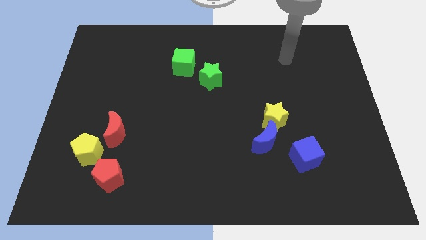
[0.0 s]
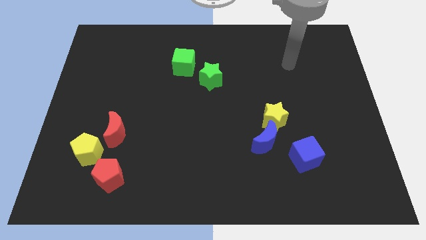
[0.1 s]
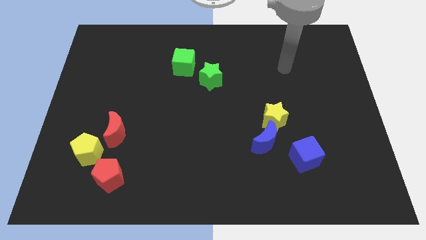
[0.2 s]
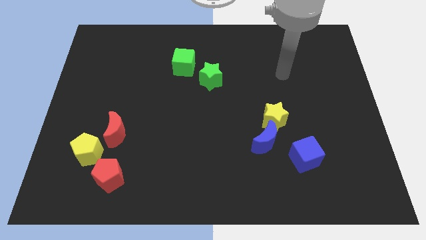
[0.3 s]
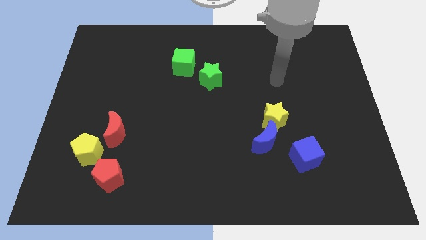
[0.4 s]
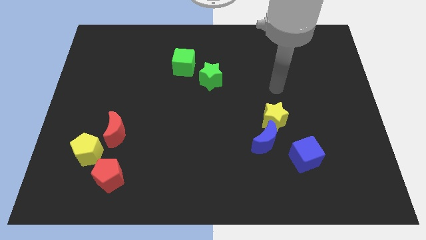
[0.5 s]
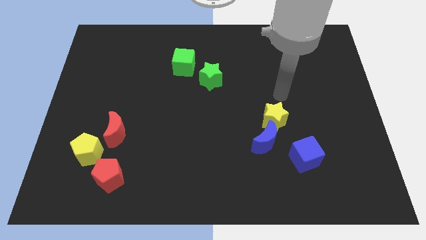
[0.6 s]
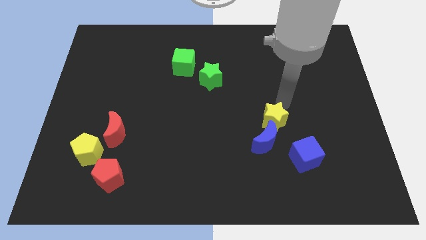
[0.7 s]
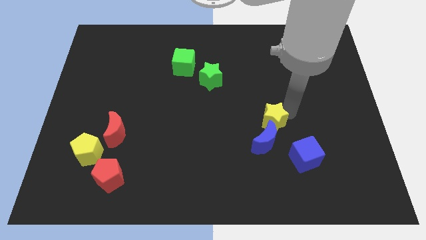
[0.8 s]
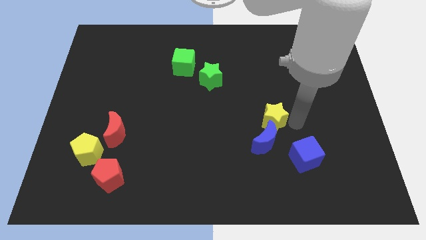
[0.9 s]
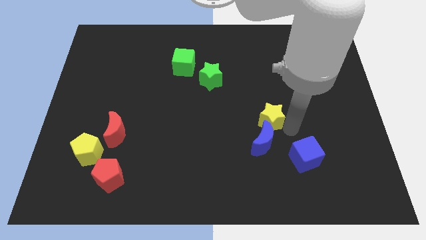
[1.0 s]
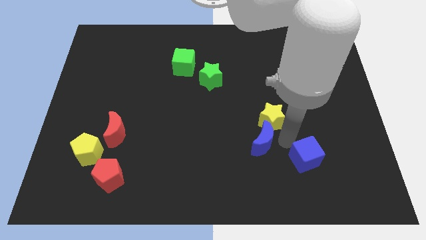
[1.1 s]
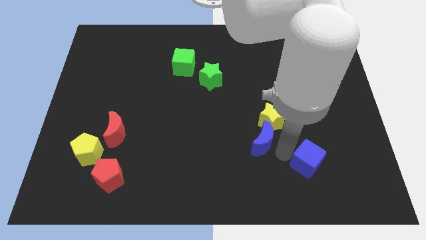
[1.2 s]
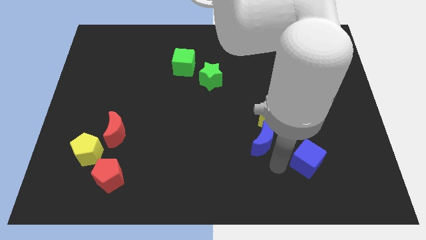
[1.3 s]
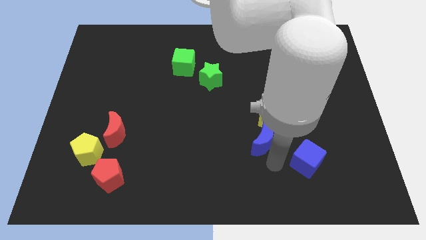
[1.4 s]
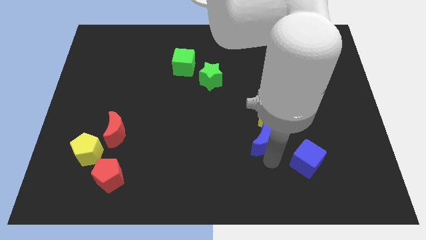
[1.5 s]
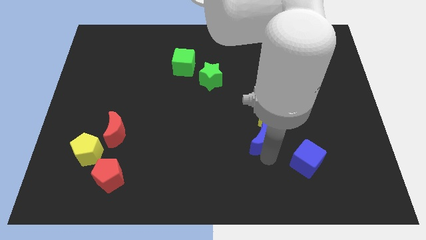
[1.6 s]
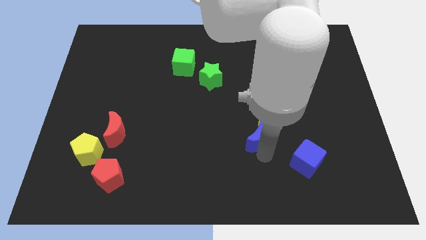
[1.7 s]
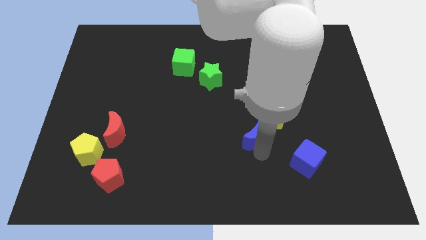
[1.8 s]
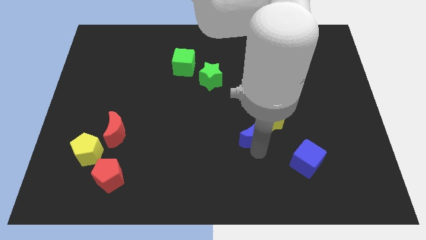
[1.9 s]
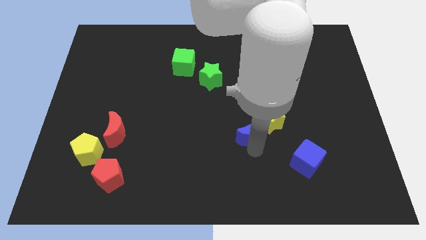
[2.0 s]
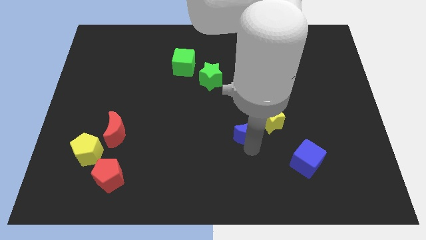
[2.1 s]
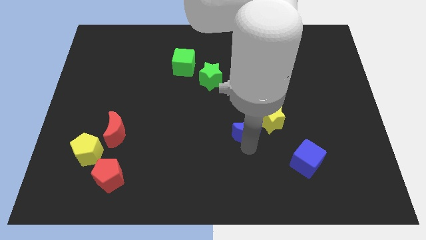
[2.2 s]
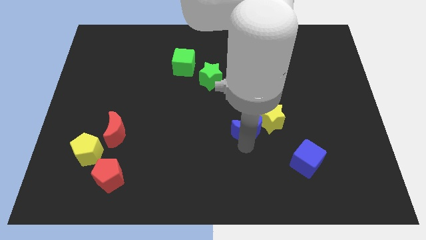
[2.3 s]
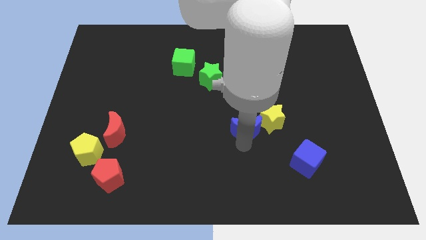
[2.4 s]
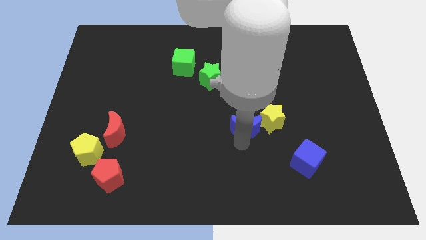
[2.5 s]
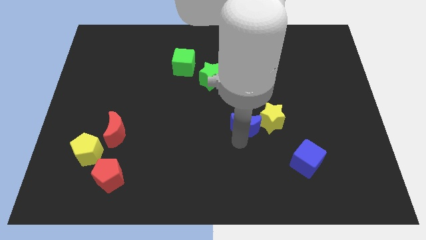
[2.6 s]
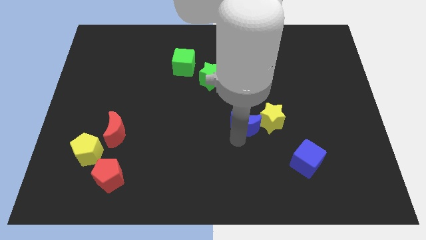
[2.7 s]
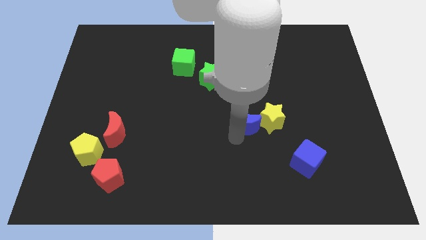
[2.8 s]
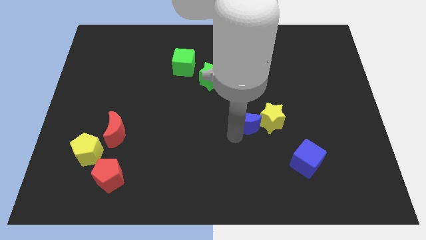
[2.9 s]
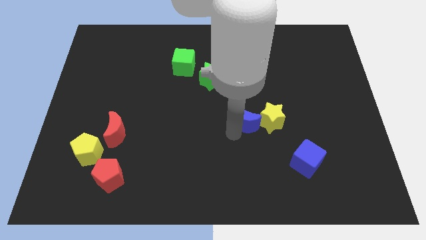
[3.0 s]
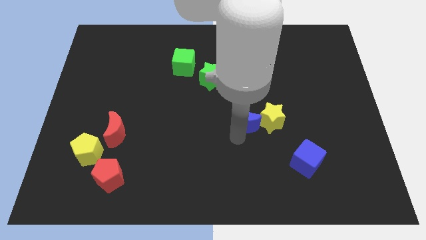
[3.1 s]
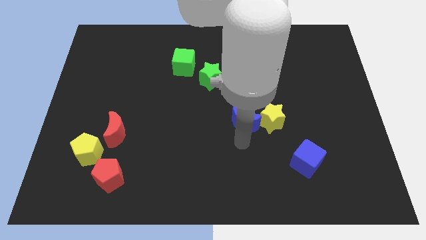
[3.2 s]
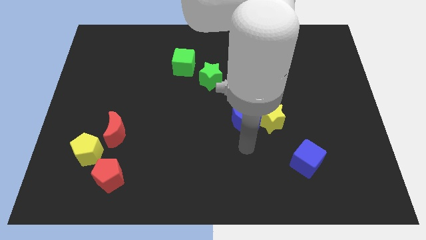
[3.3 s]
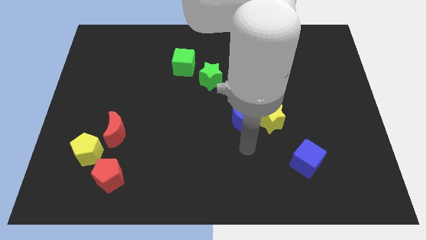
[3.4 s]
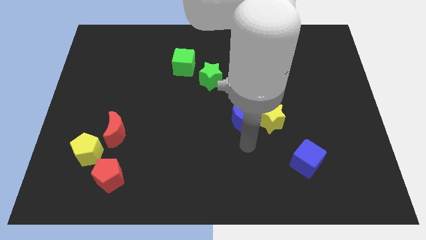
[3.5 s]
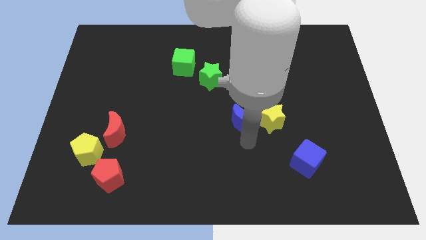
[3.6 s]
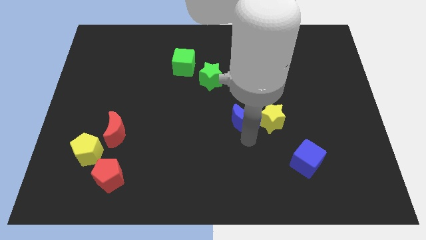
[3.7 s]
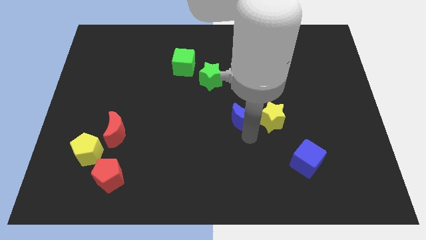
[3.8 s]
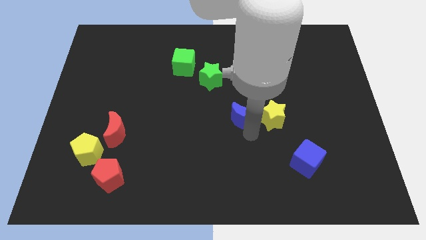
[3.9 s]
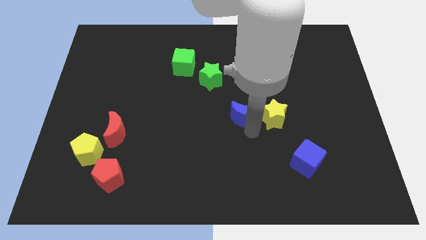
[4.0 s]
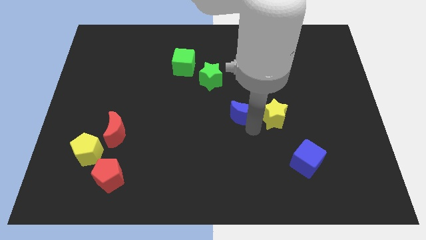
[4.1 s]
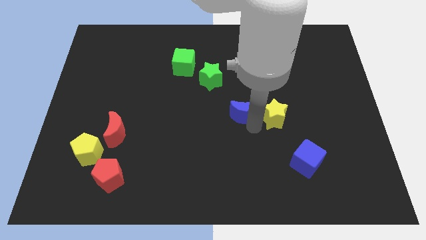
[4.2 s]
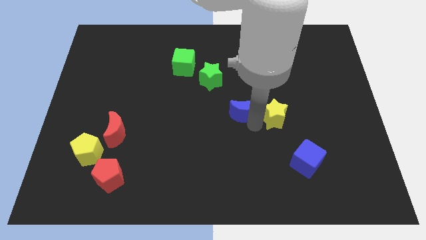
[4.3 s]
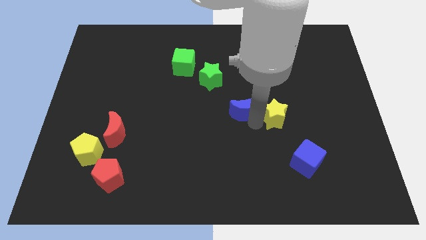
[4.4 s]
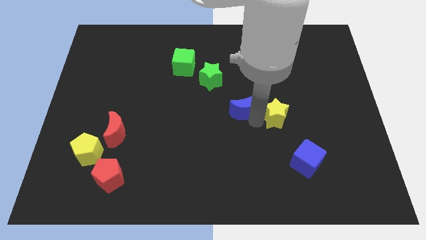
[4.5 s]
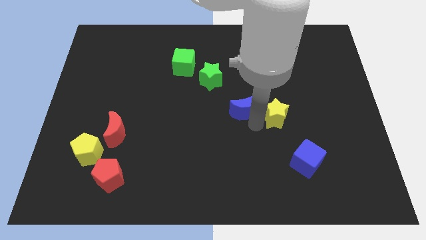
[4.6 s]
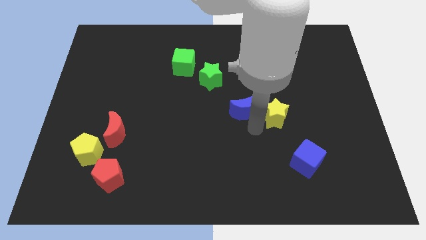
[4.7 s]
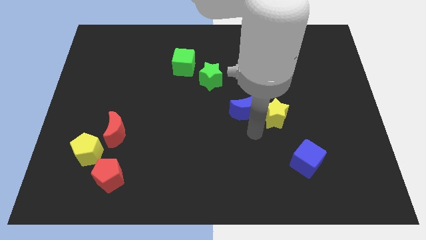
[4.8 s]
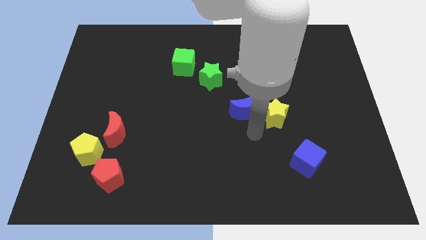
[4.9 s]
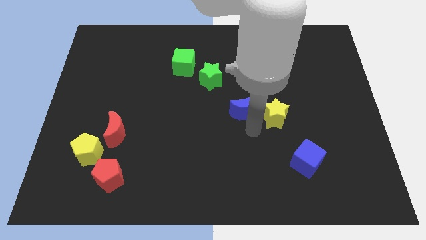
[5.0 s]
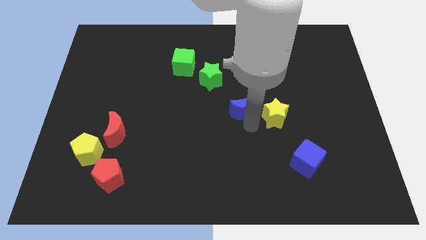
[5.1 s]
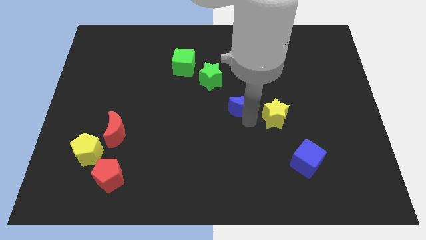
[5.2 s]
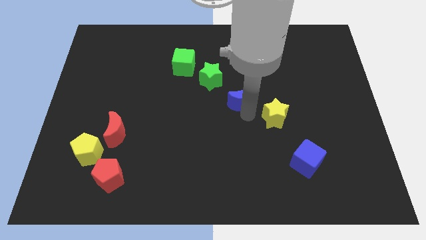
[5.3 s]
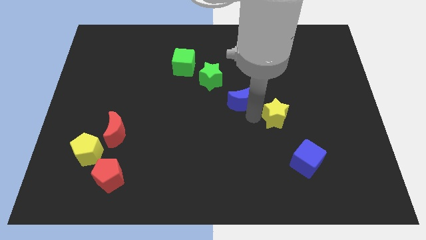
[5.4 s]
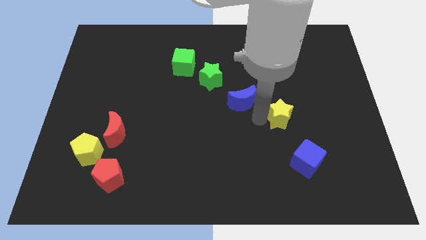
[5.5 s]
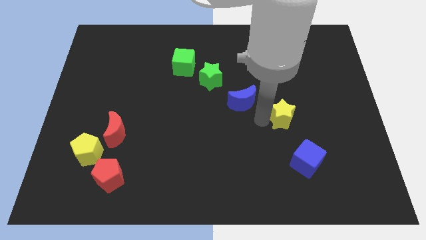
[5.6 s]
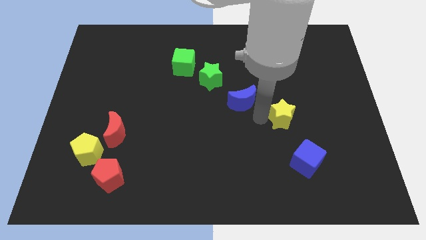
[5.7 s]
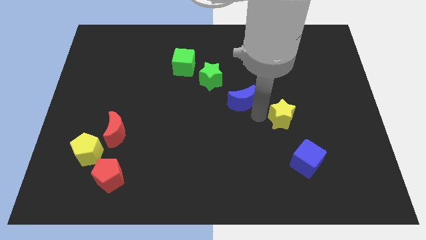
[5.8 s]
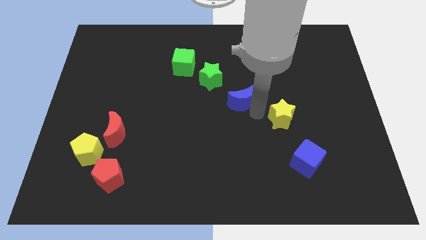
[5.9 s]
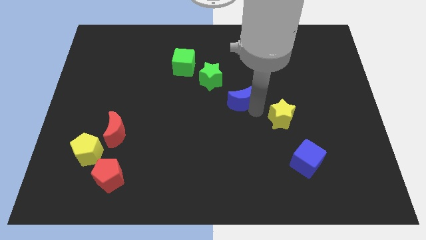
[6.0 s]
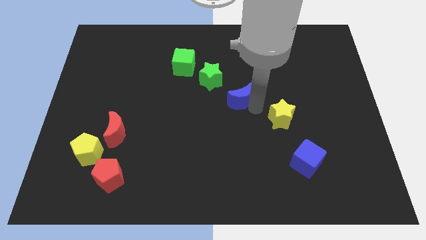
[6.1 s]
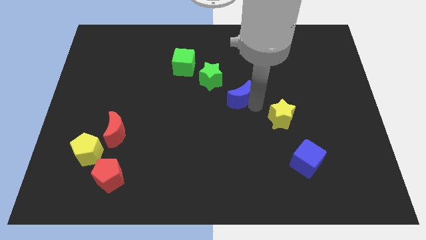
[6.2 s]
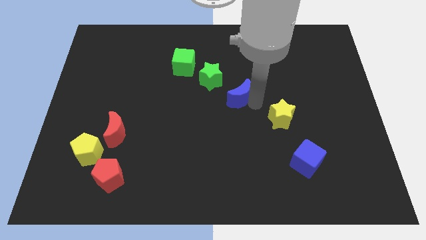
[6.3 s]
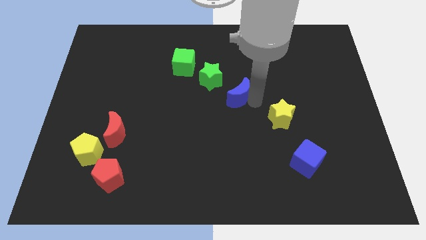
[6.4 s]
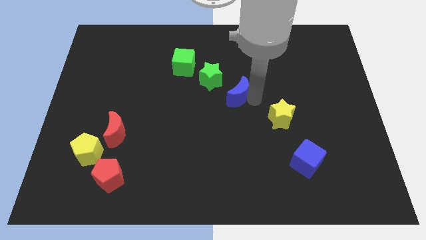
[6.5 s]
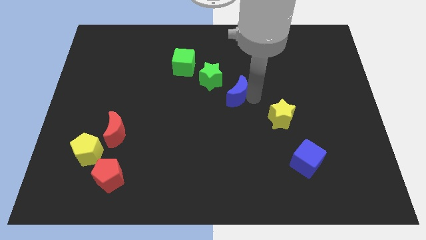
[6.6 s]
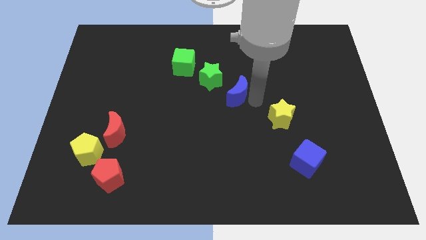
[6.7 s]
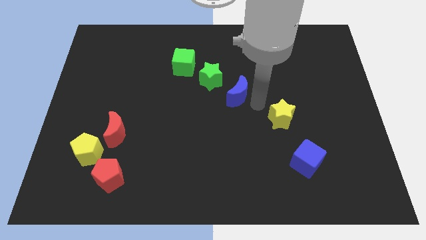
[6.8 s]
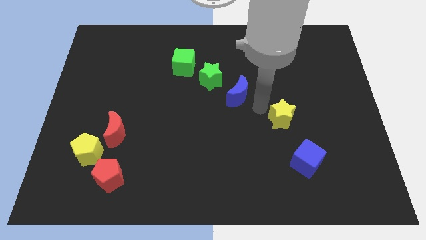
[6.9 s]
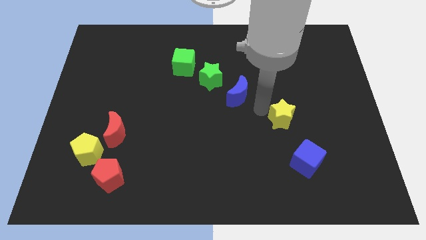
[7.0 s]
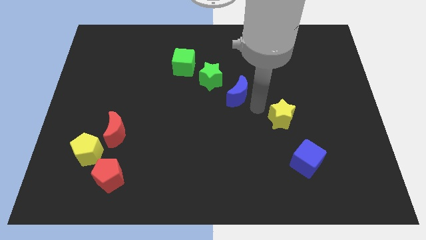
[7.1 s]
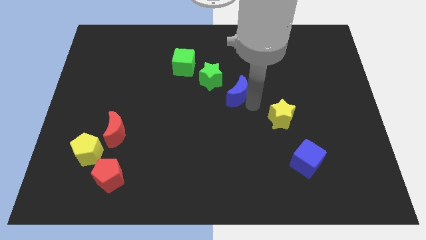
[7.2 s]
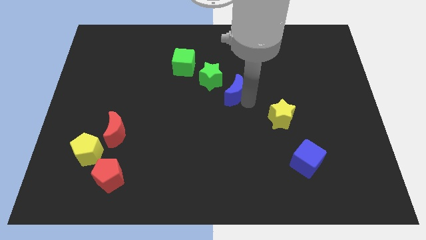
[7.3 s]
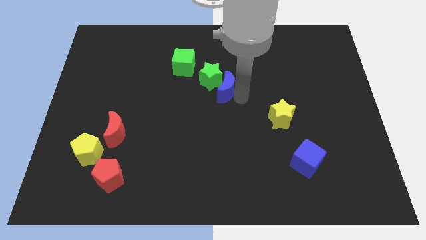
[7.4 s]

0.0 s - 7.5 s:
move the blue moon close to the green star
